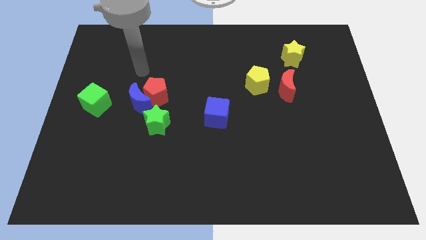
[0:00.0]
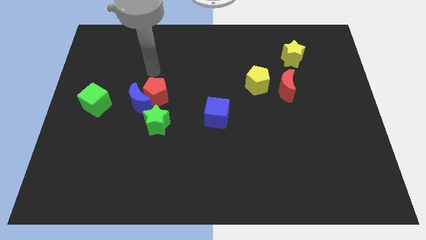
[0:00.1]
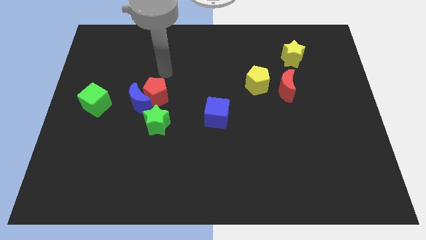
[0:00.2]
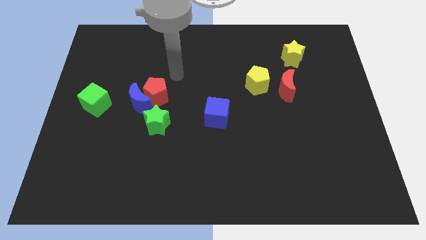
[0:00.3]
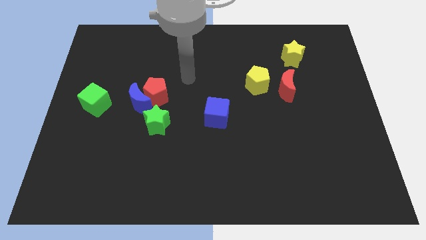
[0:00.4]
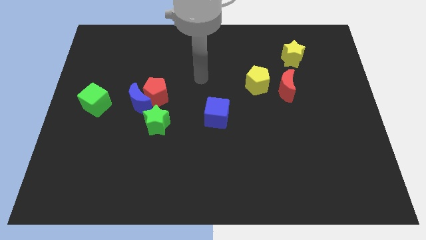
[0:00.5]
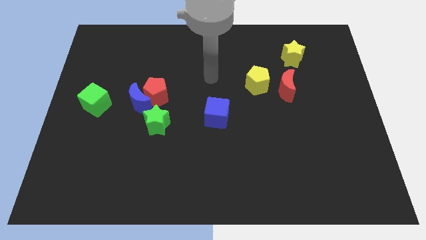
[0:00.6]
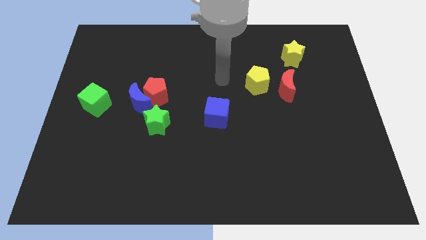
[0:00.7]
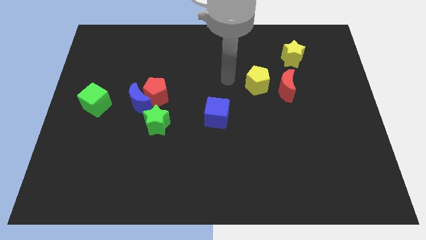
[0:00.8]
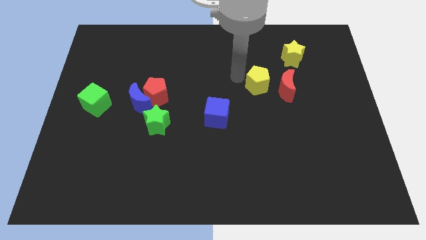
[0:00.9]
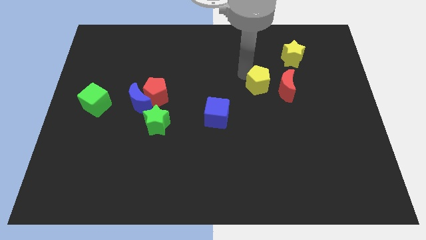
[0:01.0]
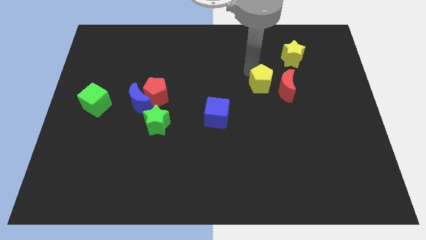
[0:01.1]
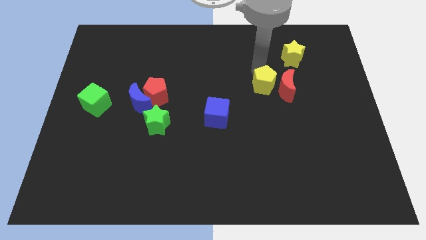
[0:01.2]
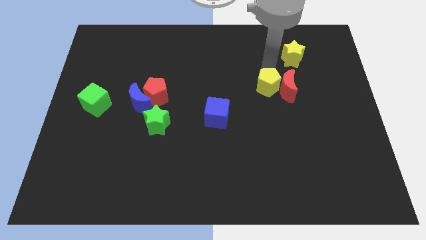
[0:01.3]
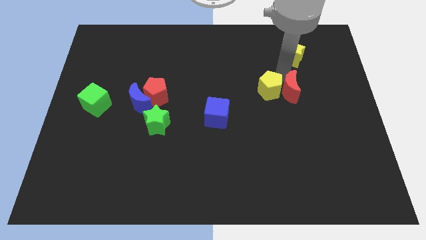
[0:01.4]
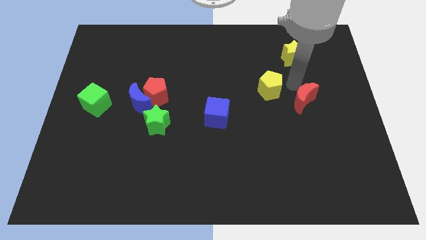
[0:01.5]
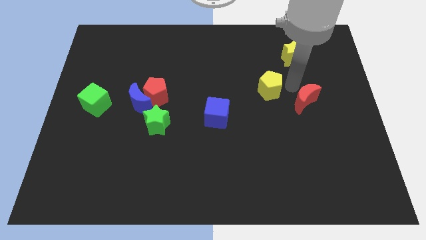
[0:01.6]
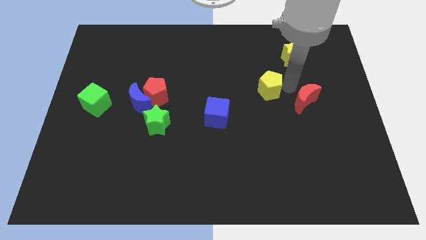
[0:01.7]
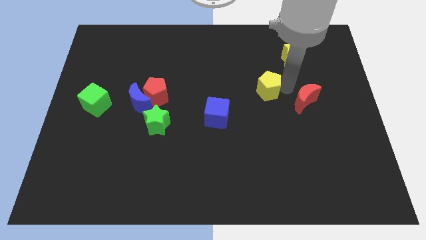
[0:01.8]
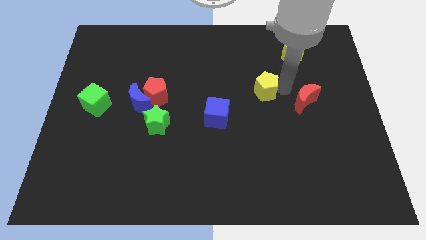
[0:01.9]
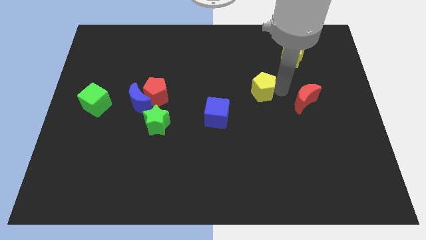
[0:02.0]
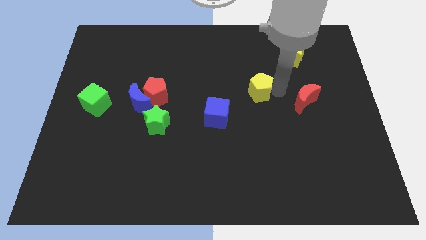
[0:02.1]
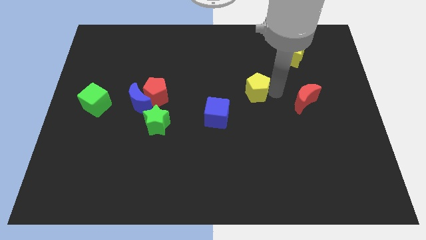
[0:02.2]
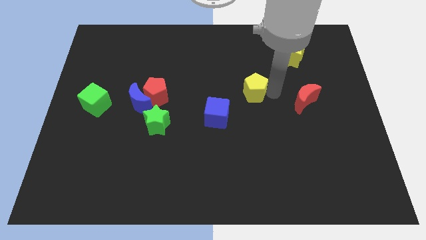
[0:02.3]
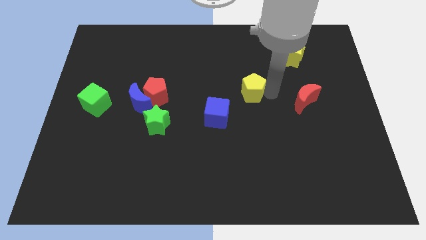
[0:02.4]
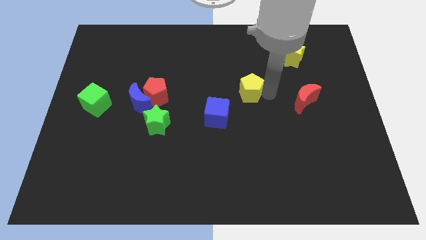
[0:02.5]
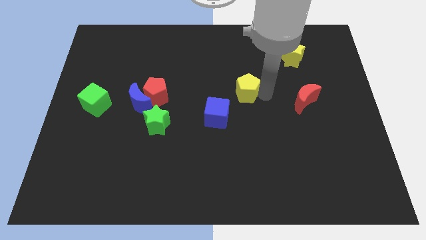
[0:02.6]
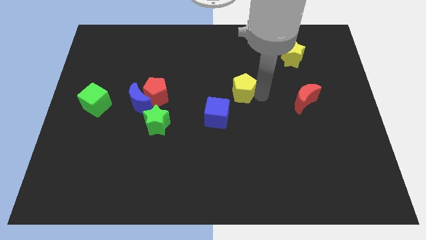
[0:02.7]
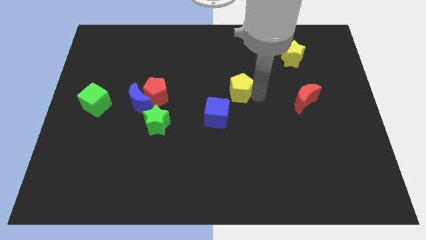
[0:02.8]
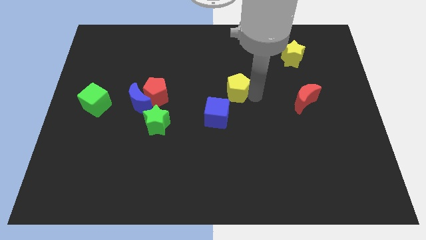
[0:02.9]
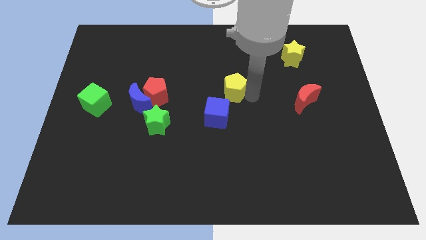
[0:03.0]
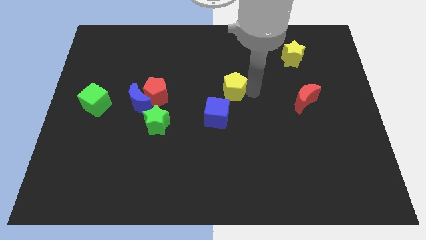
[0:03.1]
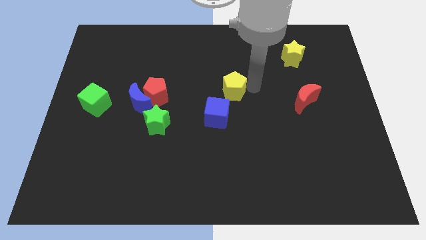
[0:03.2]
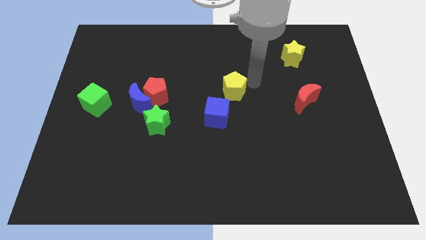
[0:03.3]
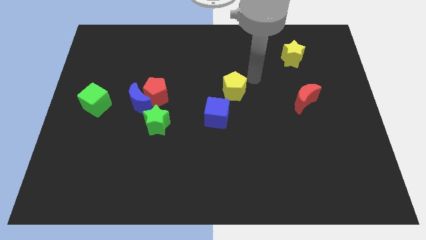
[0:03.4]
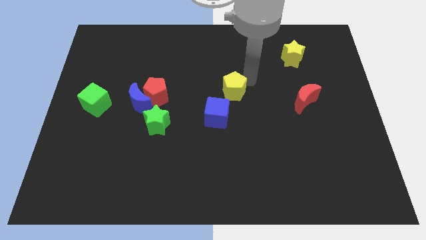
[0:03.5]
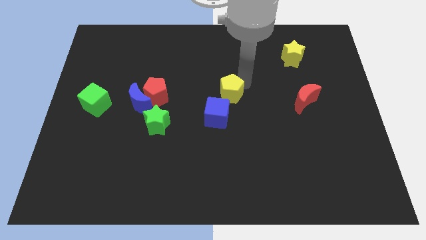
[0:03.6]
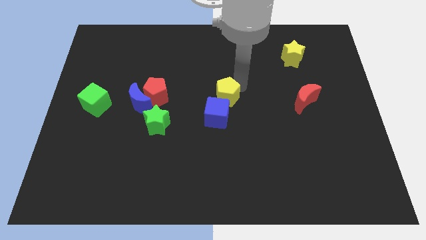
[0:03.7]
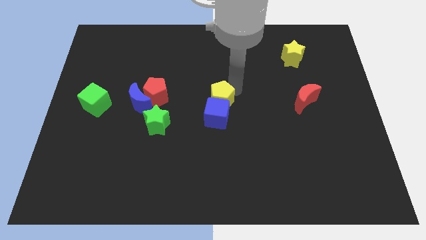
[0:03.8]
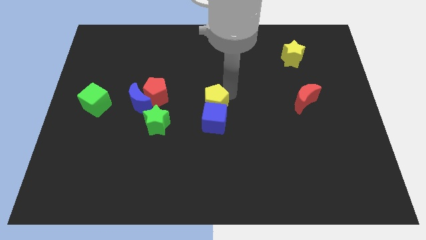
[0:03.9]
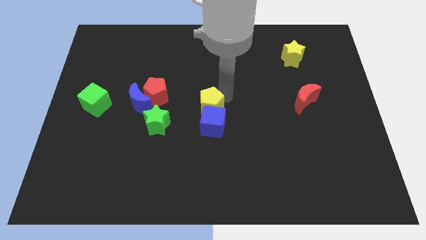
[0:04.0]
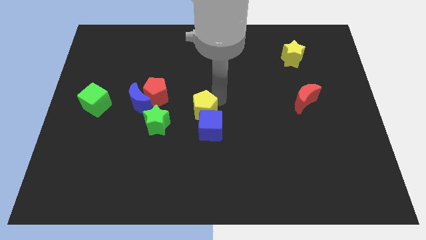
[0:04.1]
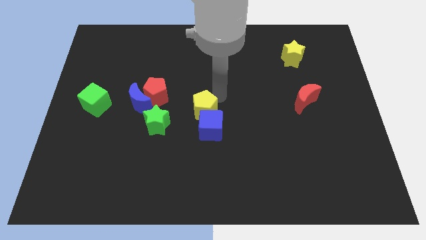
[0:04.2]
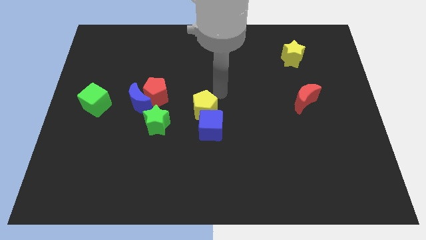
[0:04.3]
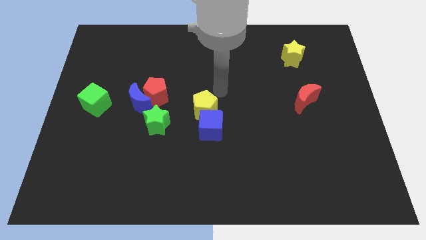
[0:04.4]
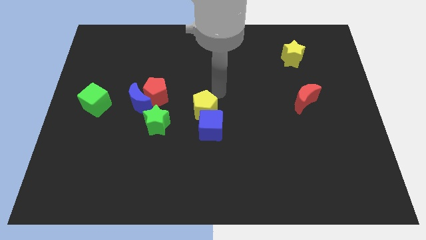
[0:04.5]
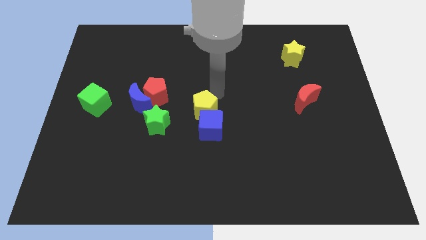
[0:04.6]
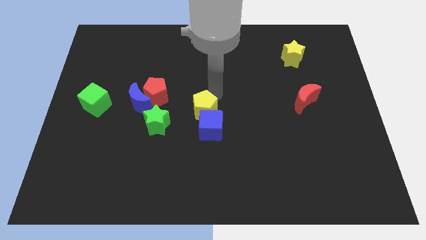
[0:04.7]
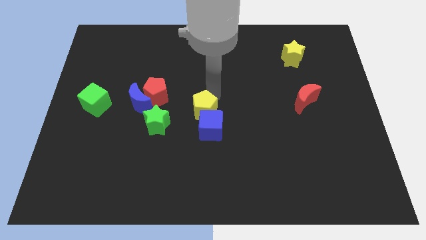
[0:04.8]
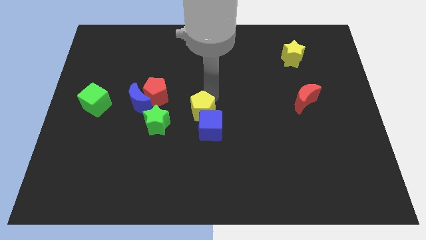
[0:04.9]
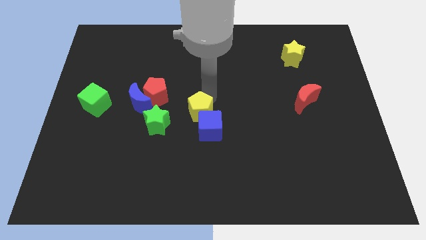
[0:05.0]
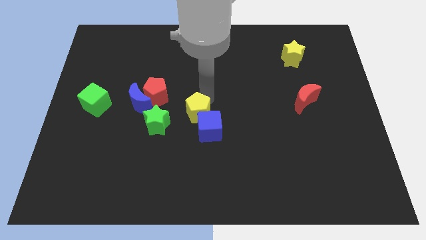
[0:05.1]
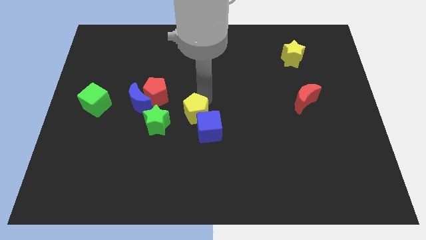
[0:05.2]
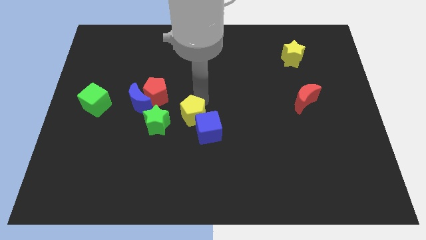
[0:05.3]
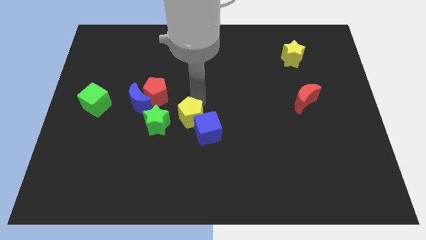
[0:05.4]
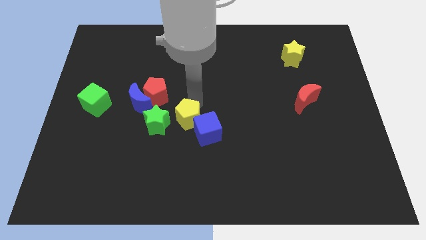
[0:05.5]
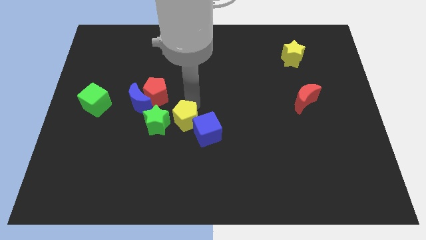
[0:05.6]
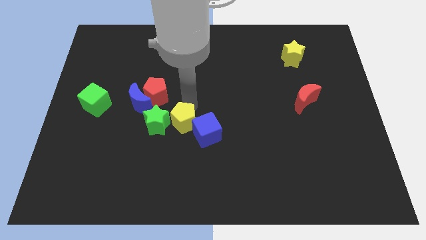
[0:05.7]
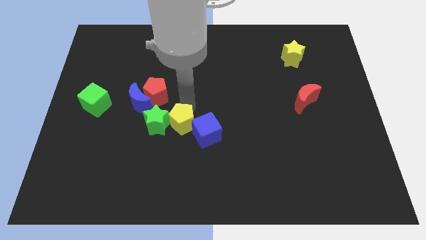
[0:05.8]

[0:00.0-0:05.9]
push the yellow pentagon down and then left

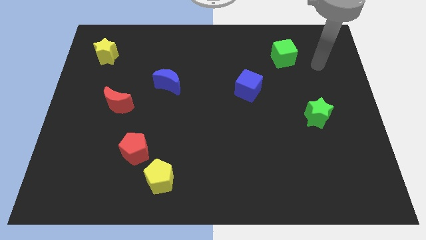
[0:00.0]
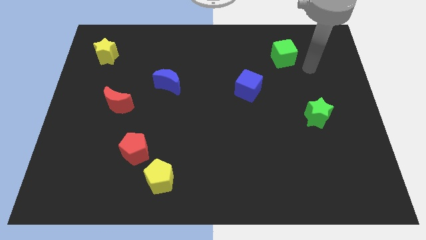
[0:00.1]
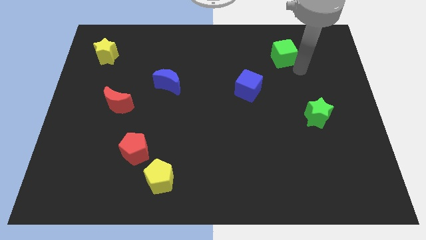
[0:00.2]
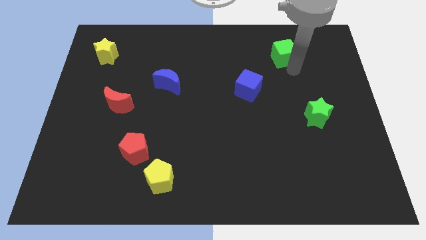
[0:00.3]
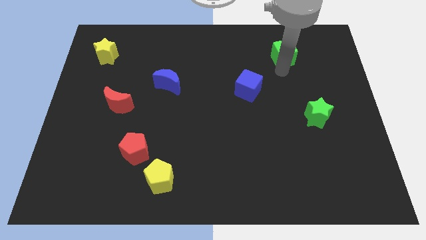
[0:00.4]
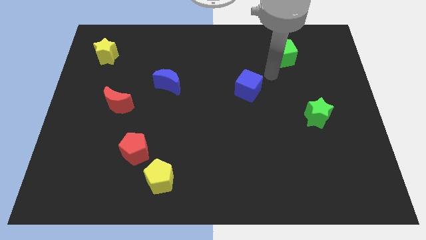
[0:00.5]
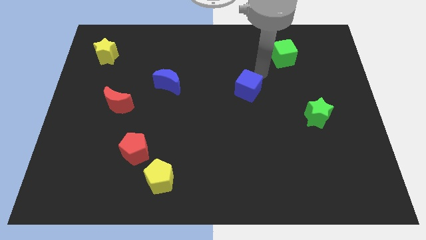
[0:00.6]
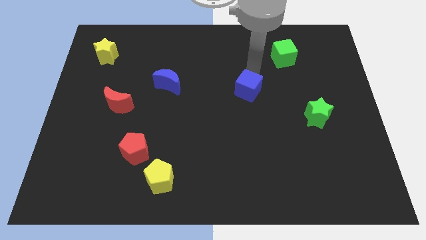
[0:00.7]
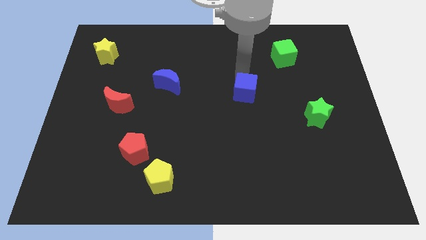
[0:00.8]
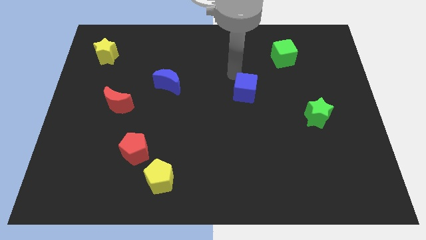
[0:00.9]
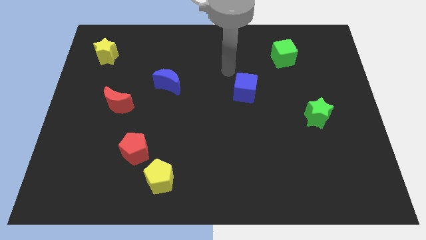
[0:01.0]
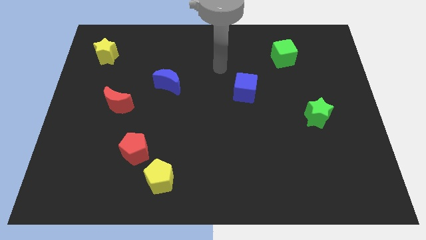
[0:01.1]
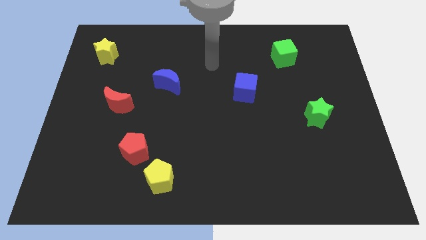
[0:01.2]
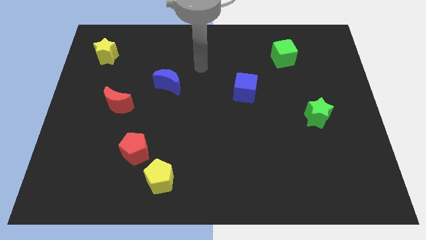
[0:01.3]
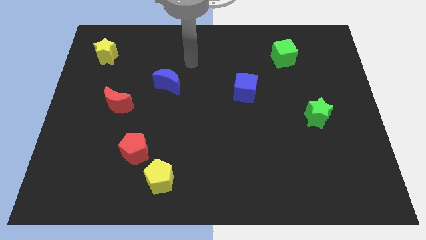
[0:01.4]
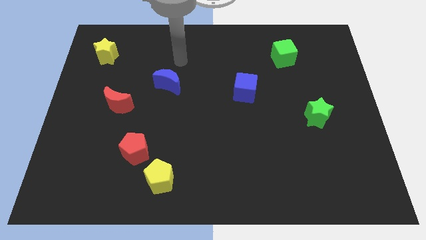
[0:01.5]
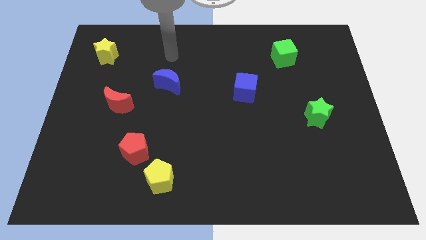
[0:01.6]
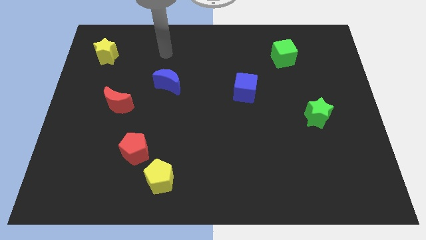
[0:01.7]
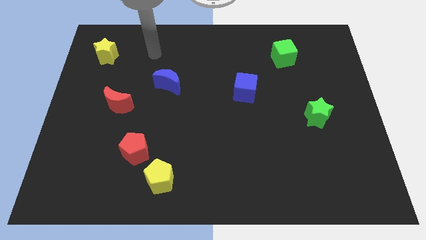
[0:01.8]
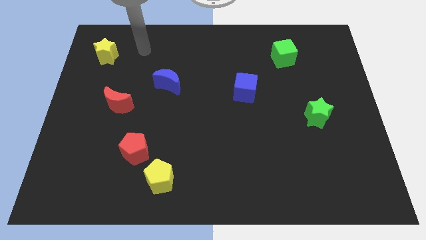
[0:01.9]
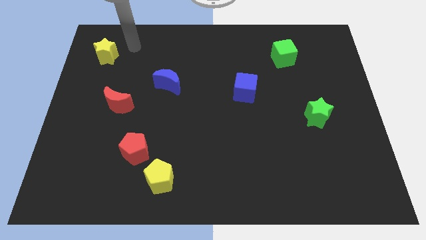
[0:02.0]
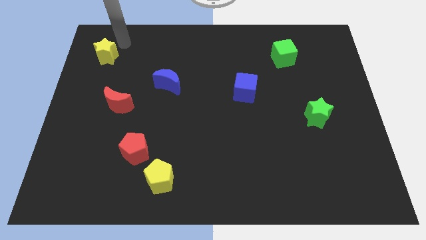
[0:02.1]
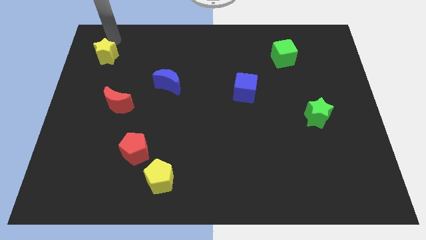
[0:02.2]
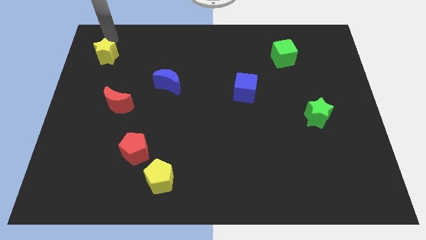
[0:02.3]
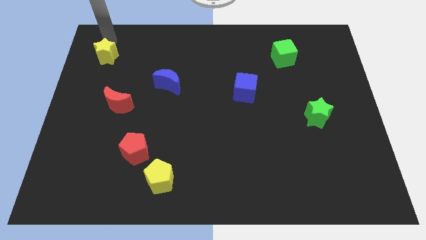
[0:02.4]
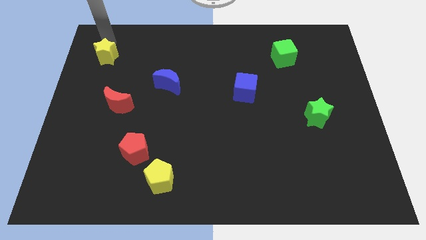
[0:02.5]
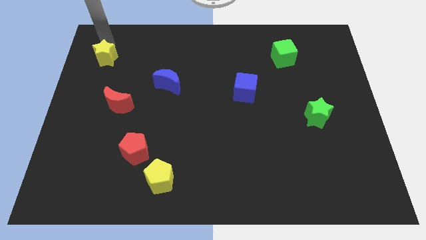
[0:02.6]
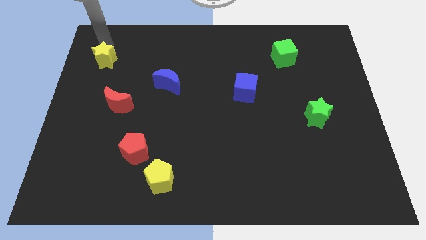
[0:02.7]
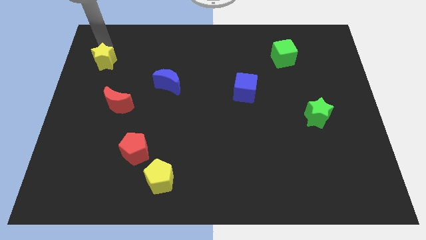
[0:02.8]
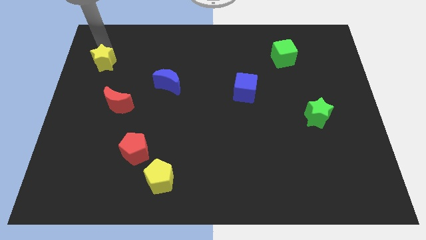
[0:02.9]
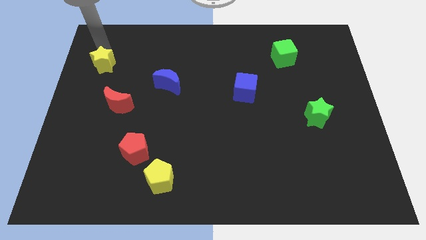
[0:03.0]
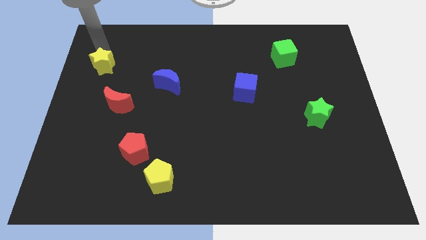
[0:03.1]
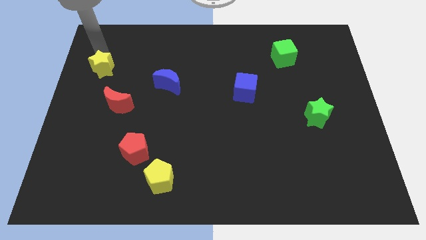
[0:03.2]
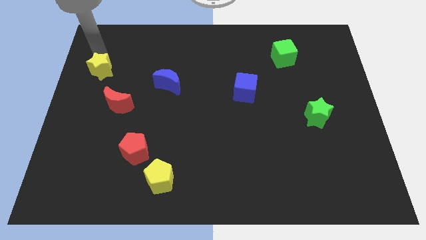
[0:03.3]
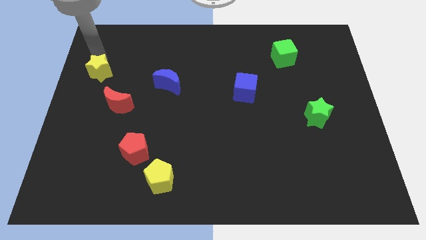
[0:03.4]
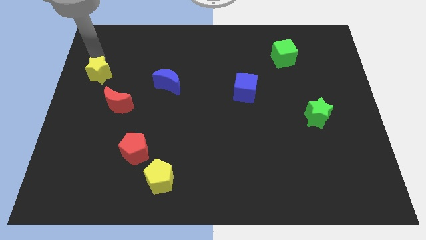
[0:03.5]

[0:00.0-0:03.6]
slide the yellow star a little bit downwards
